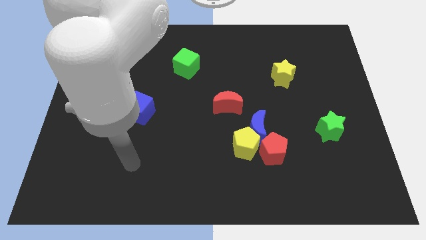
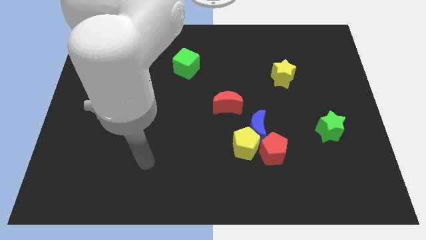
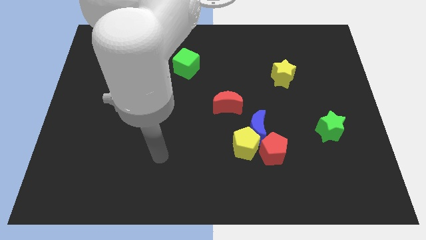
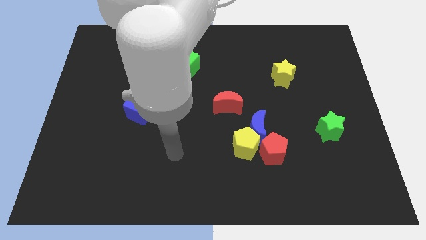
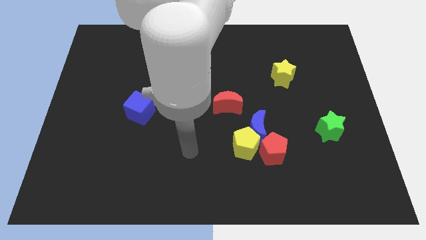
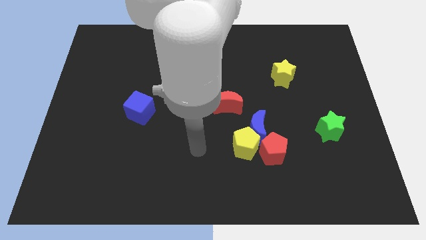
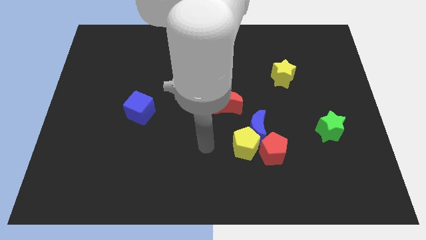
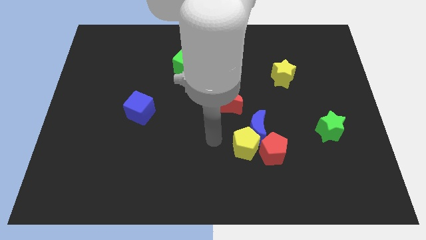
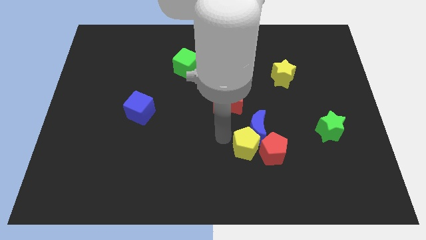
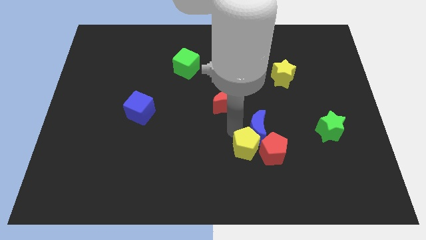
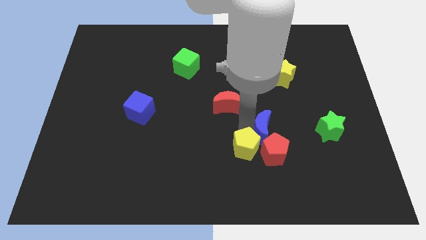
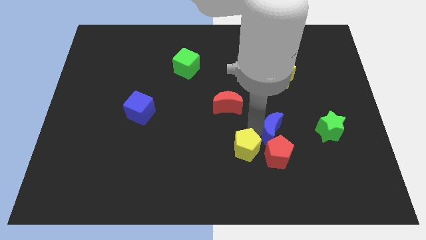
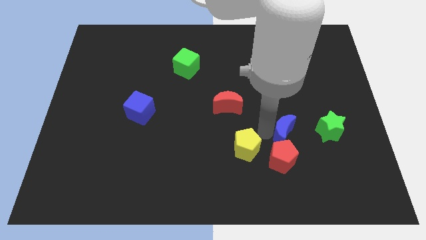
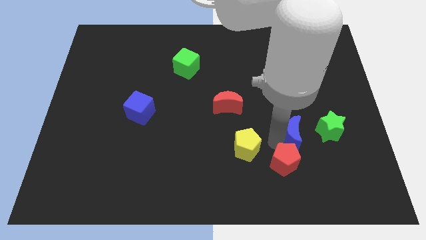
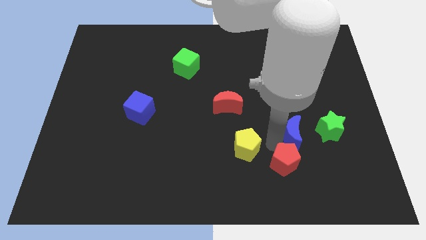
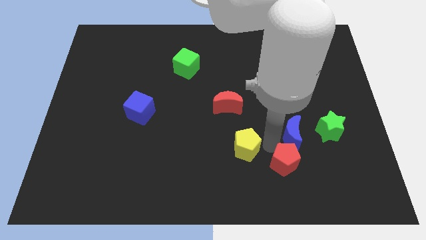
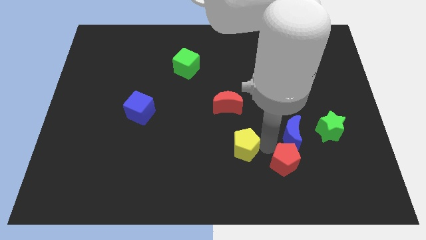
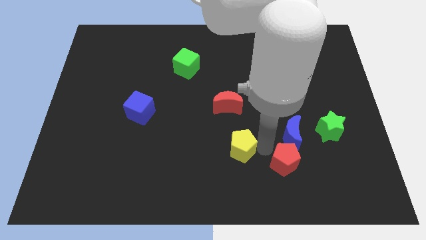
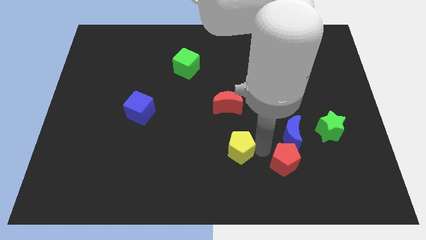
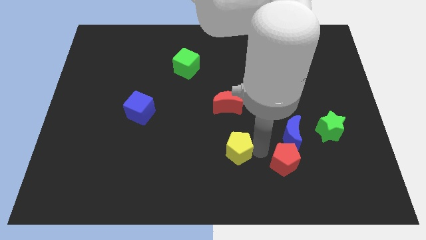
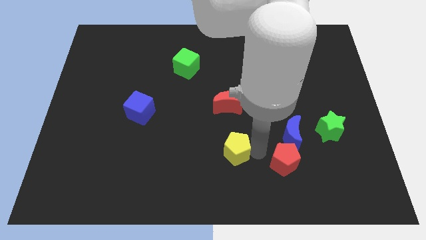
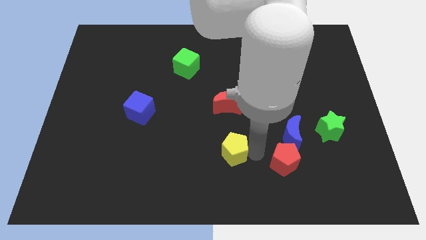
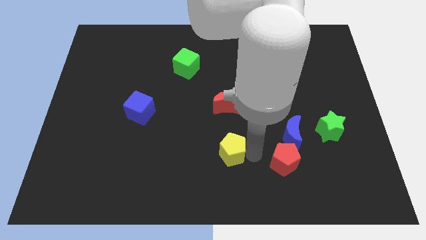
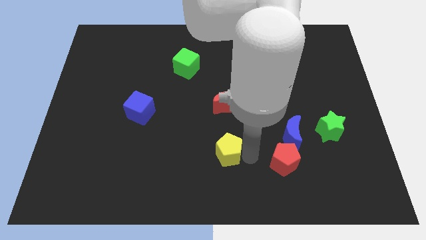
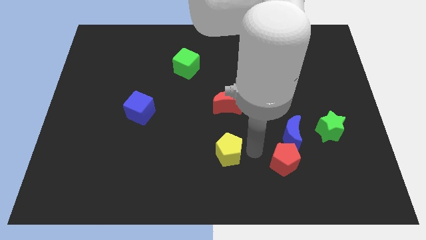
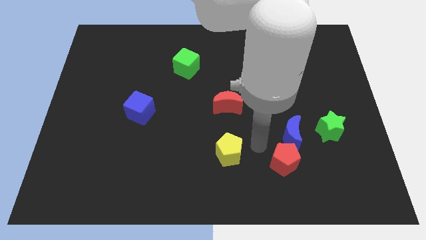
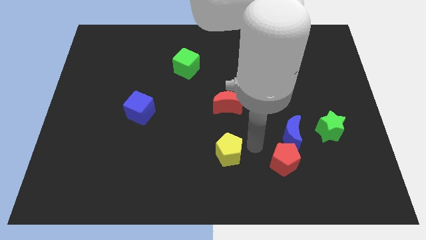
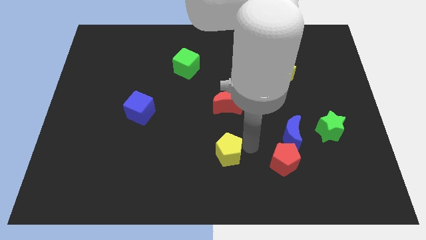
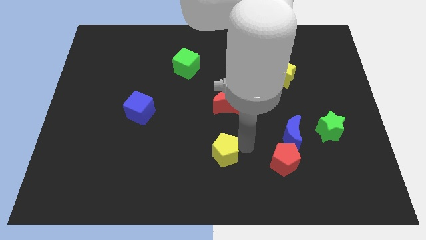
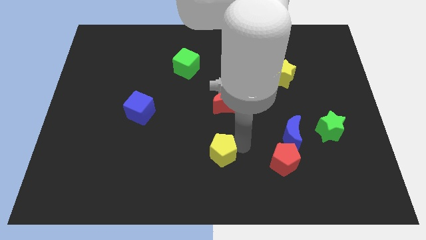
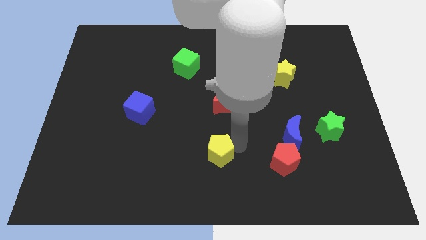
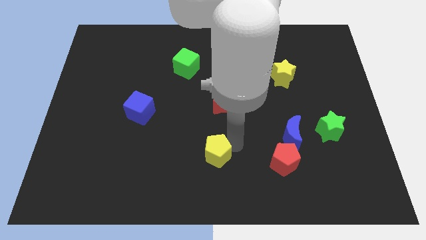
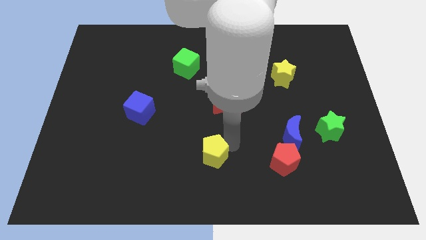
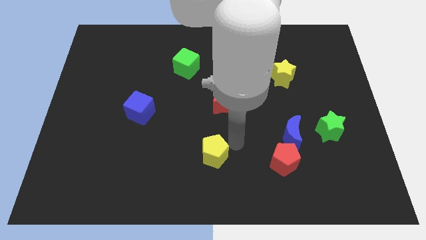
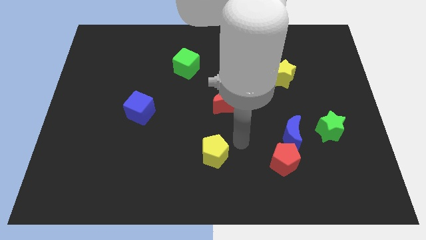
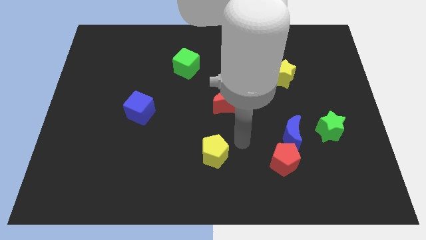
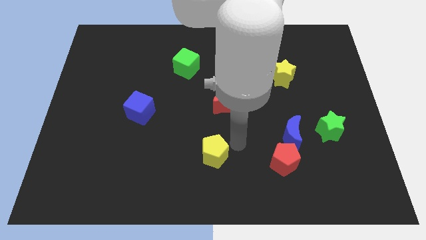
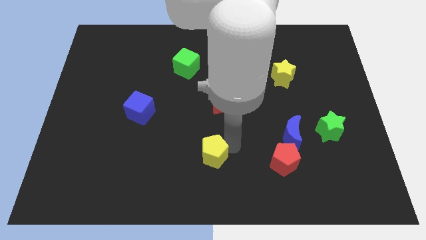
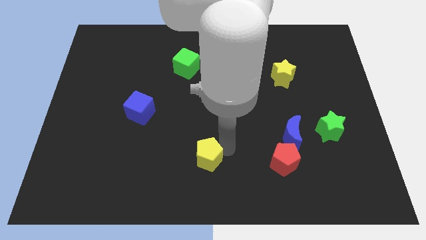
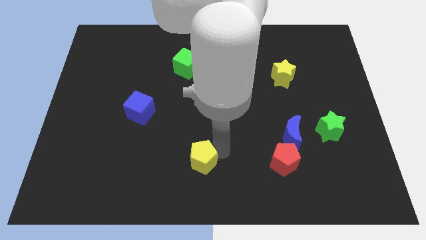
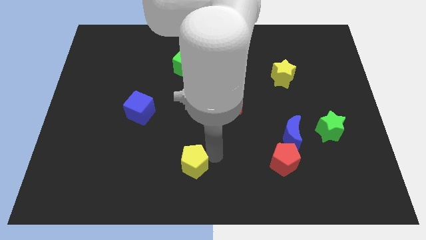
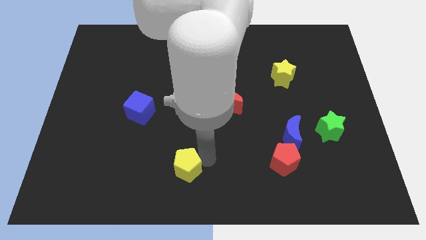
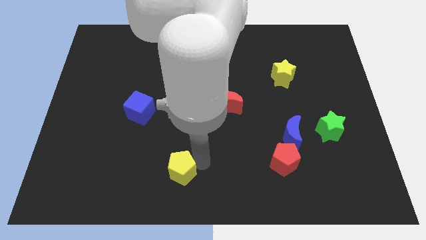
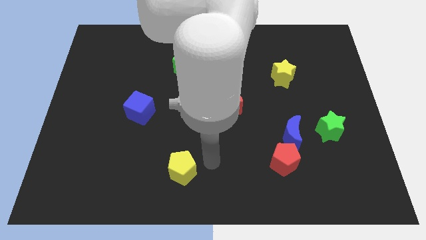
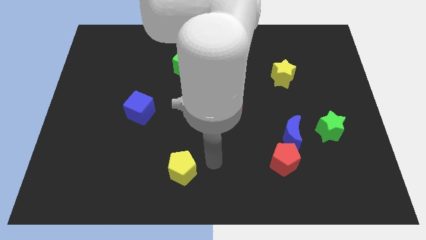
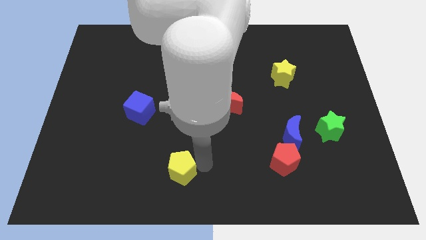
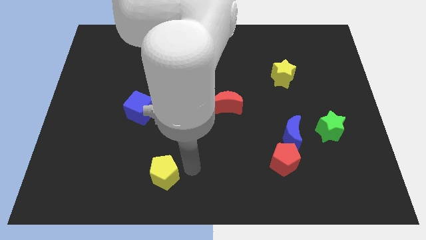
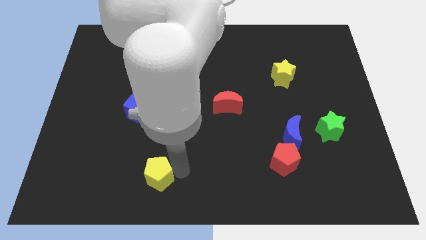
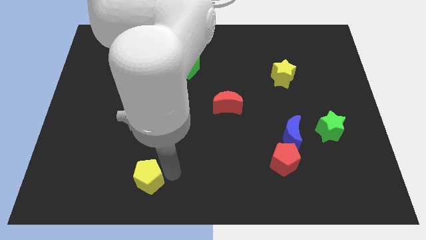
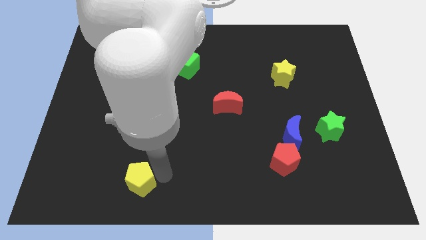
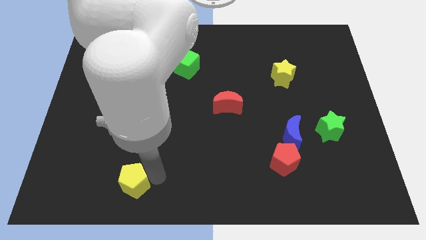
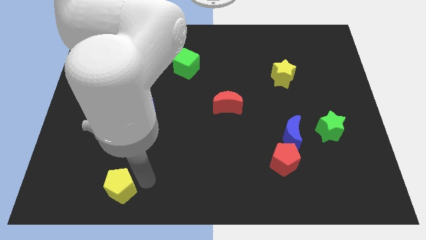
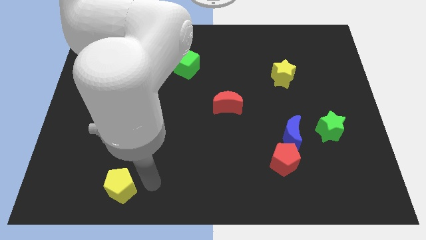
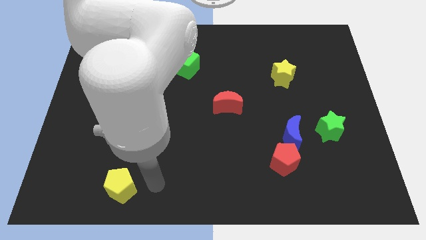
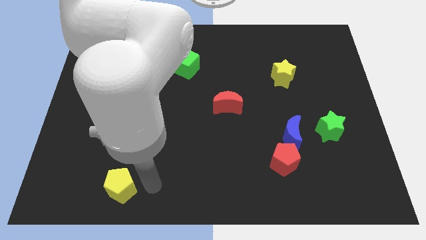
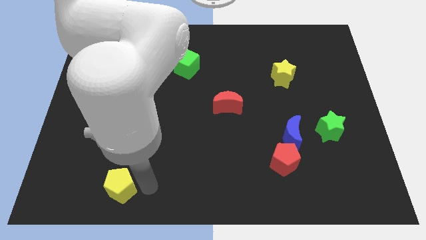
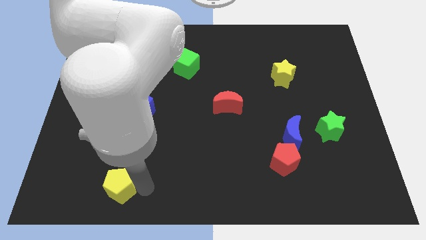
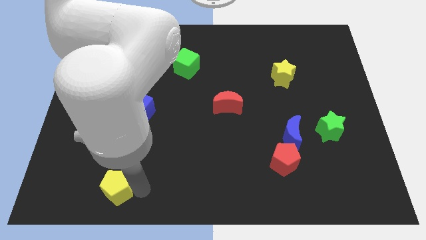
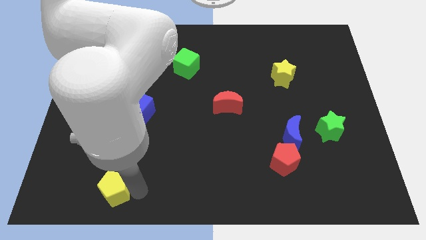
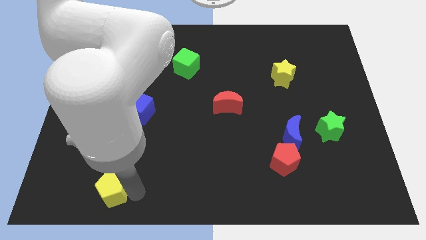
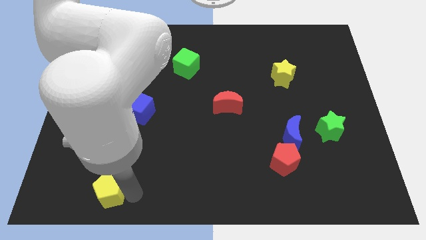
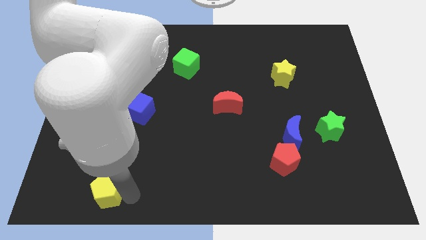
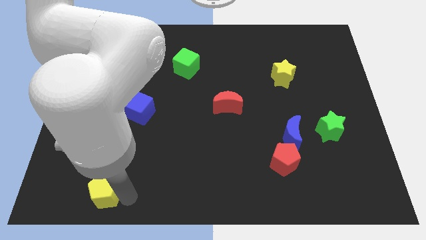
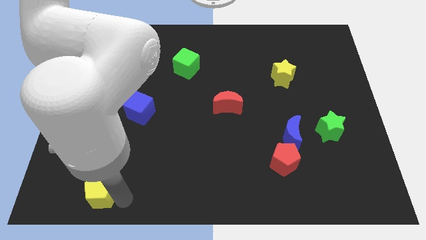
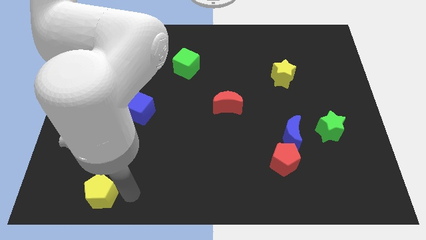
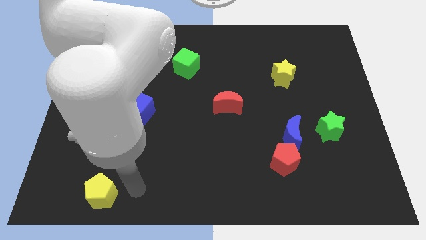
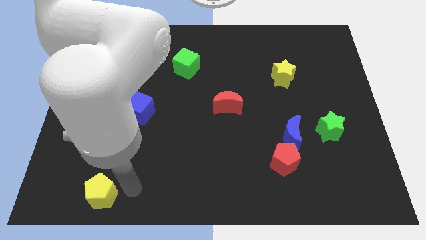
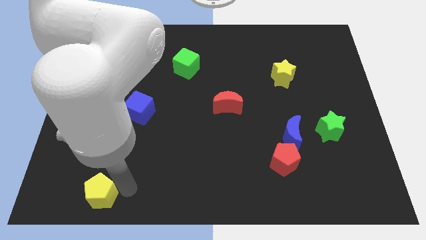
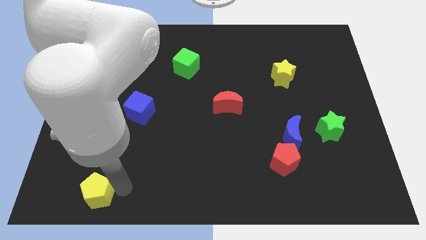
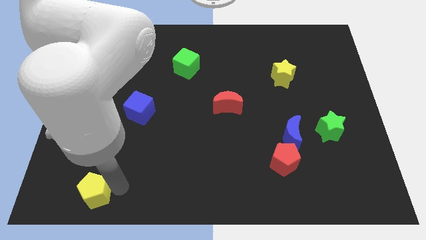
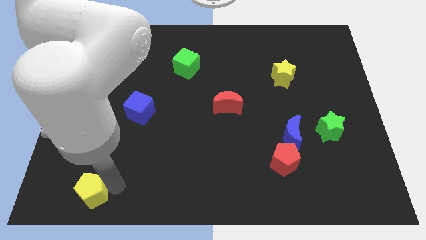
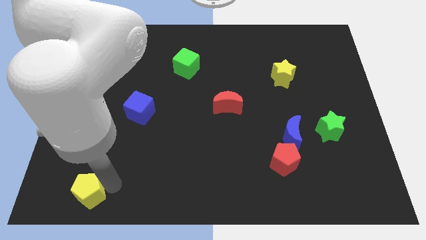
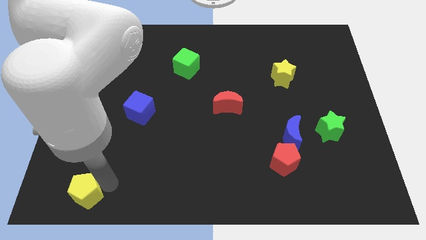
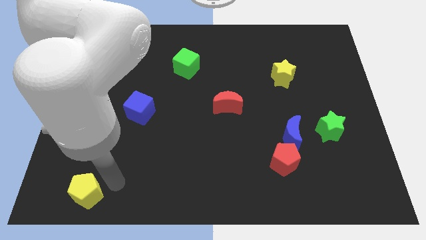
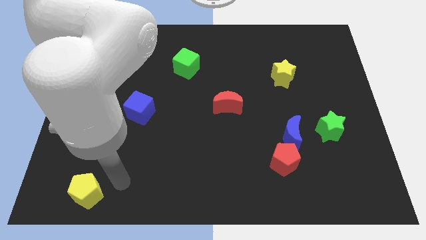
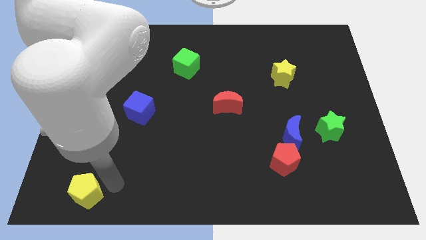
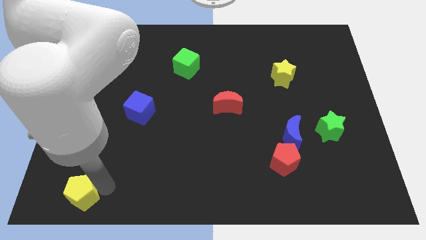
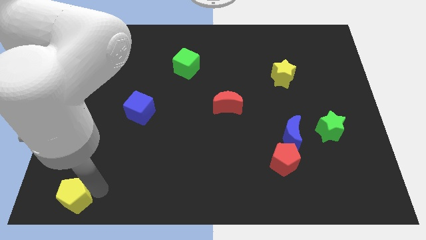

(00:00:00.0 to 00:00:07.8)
slide the yellow pentagon to the lower left corner
